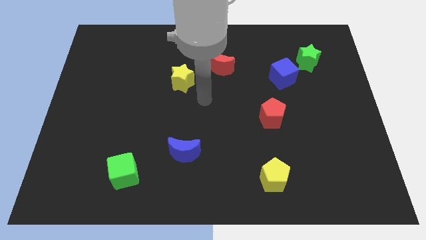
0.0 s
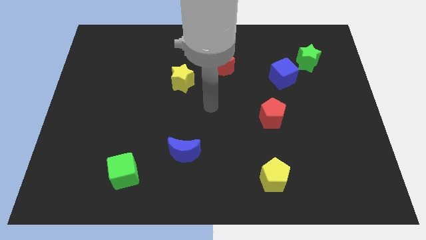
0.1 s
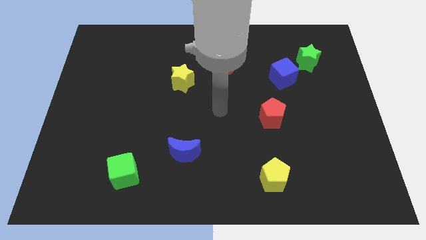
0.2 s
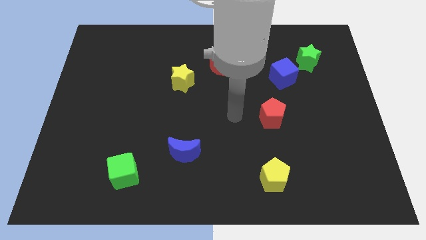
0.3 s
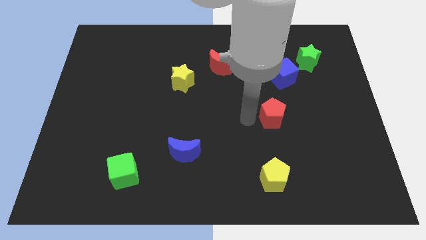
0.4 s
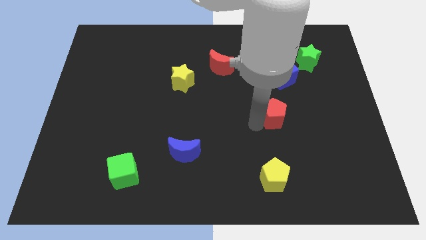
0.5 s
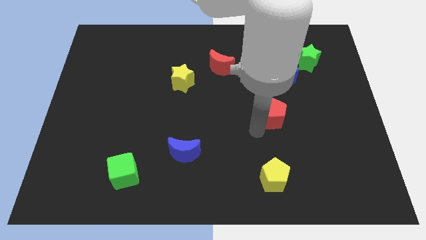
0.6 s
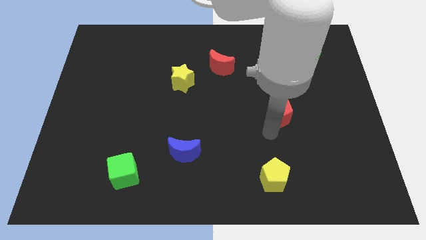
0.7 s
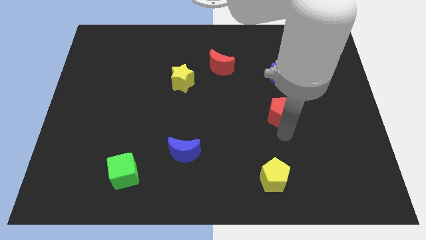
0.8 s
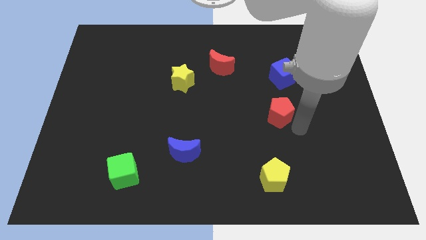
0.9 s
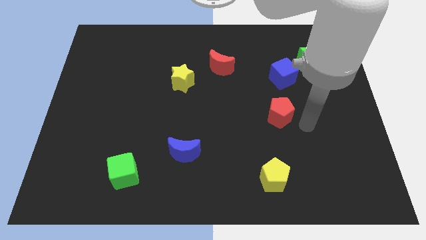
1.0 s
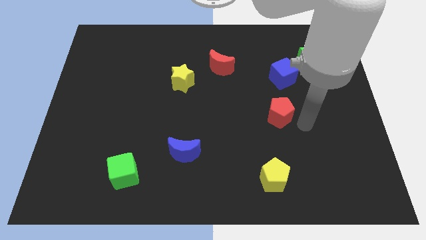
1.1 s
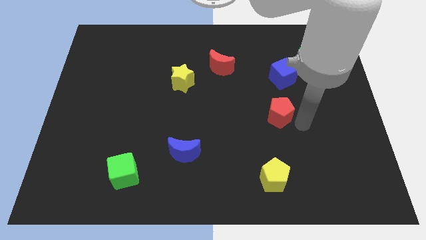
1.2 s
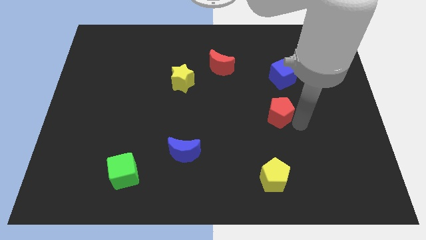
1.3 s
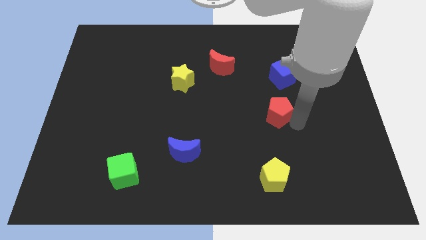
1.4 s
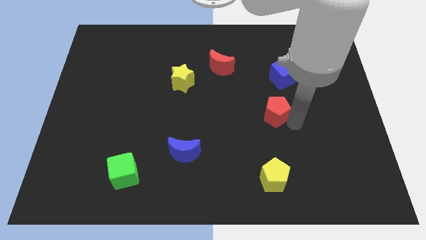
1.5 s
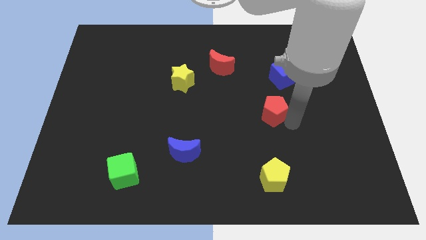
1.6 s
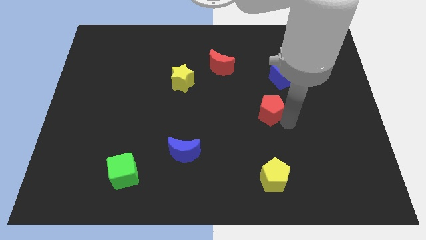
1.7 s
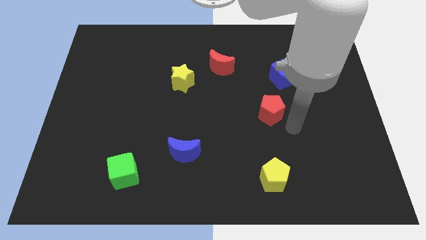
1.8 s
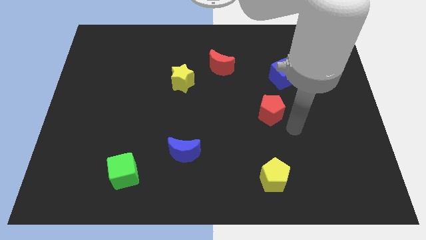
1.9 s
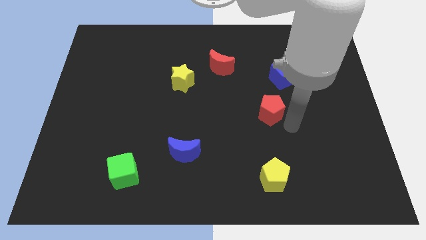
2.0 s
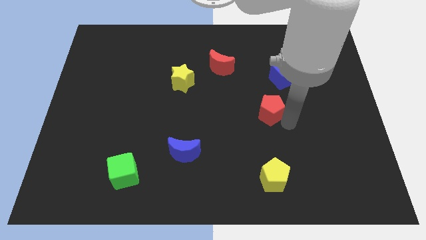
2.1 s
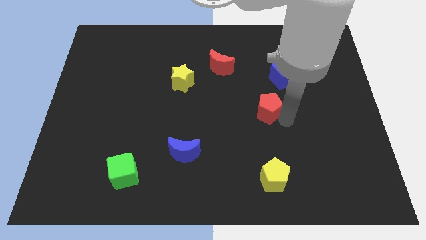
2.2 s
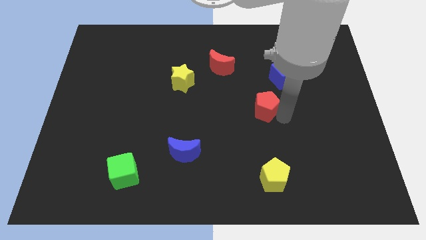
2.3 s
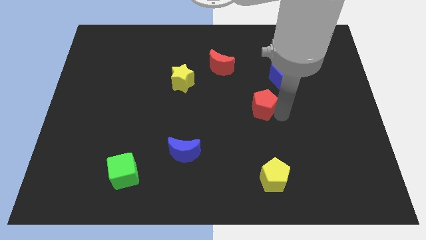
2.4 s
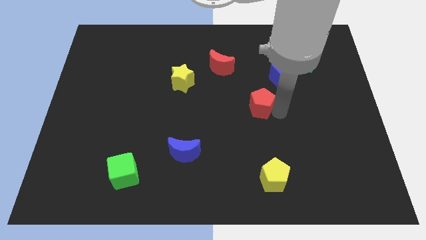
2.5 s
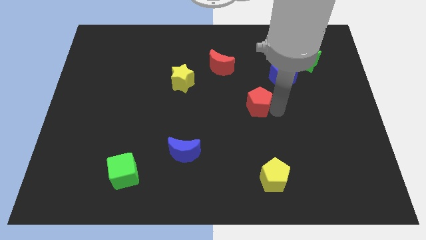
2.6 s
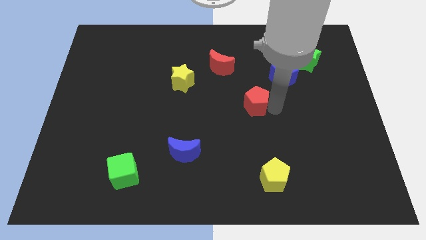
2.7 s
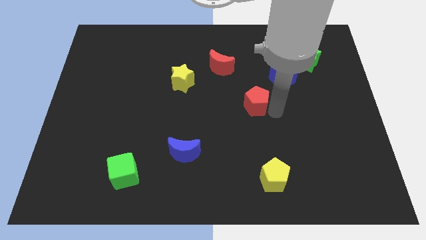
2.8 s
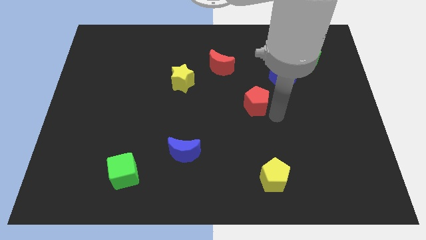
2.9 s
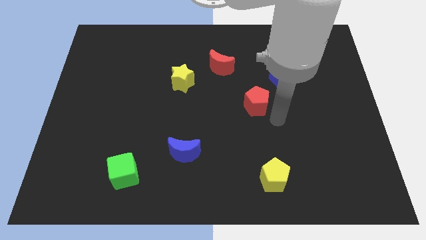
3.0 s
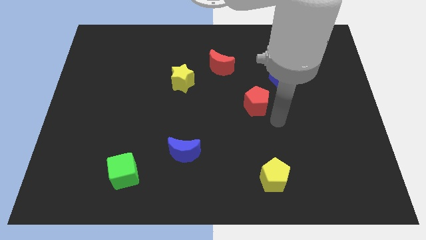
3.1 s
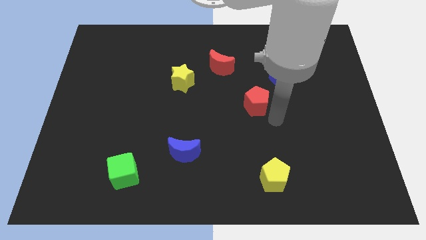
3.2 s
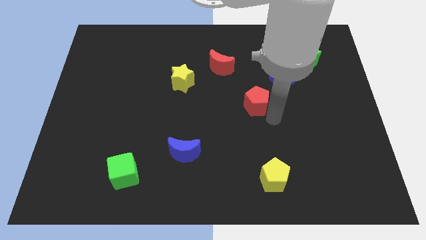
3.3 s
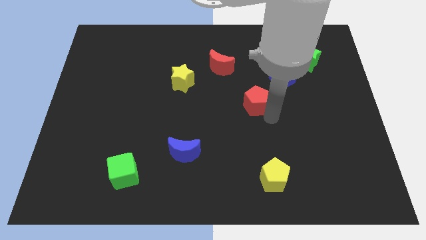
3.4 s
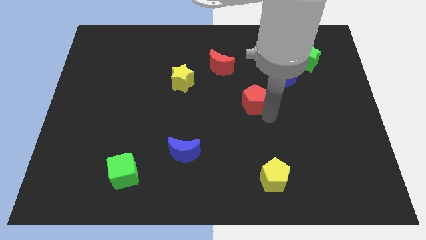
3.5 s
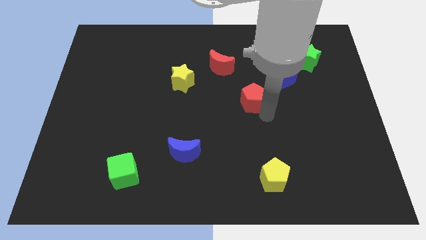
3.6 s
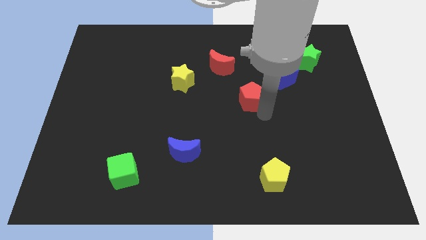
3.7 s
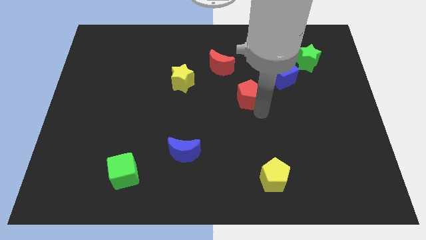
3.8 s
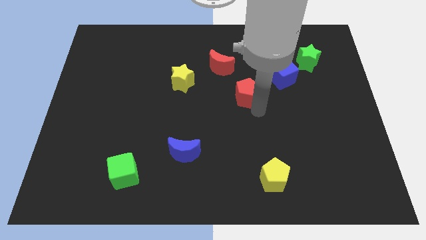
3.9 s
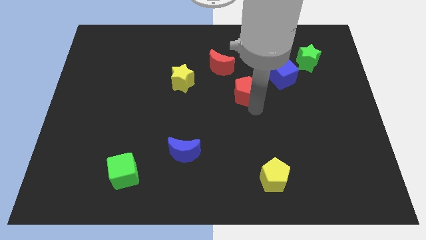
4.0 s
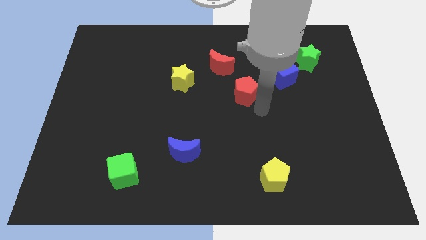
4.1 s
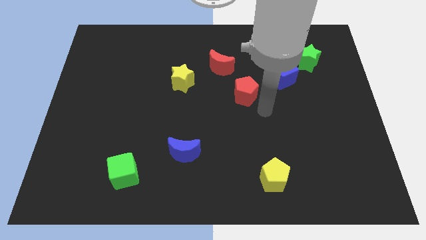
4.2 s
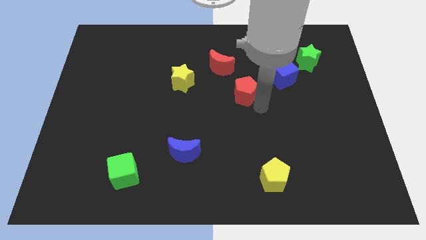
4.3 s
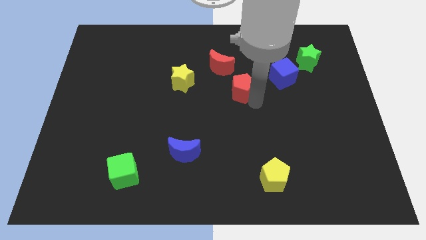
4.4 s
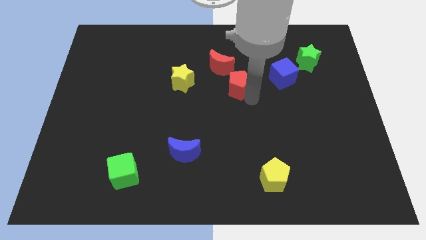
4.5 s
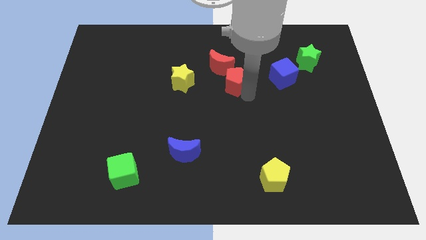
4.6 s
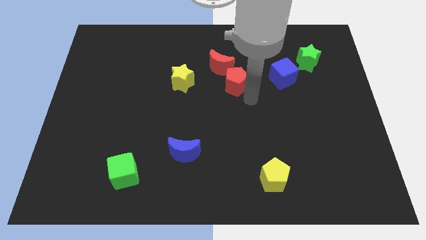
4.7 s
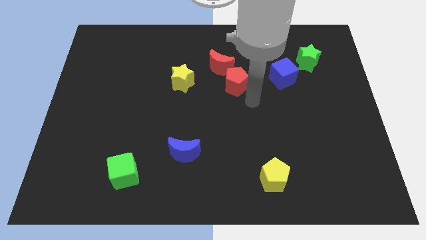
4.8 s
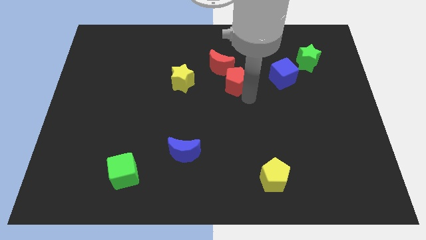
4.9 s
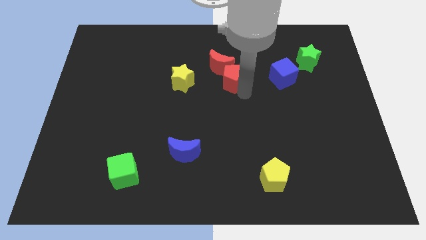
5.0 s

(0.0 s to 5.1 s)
put the red pentagon towards the red moon

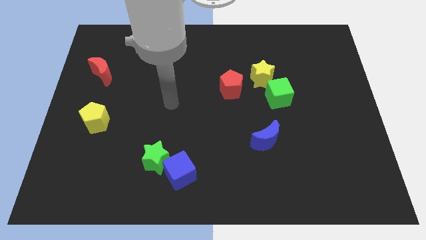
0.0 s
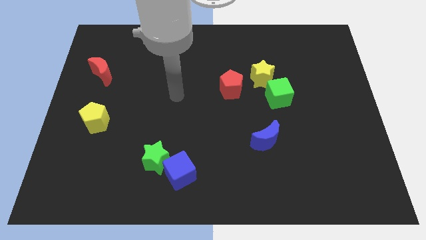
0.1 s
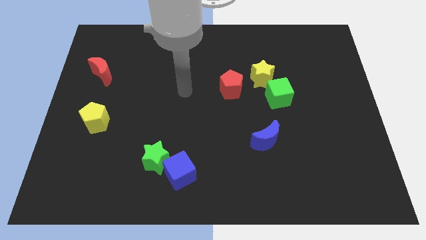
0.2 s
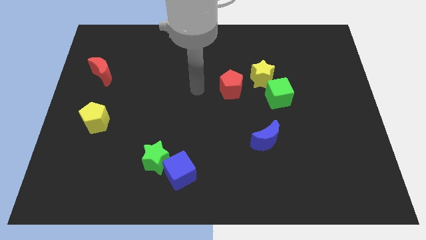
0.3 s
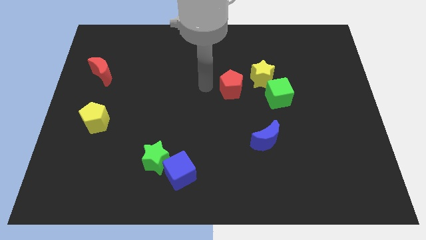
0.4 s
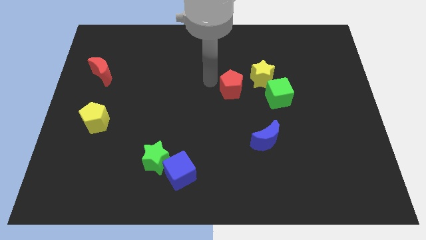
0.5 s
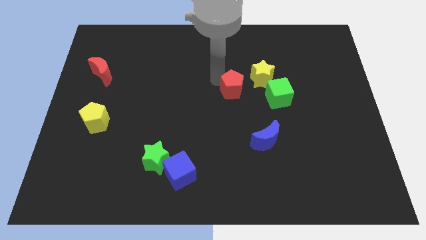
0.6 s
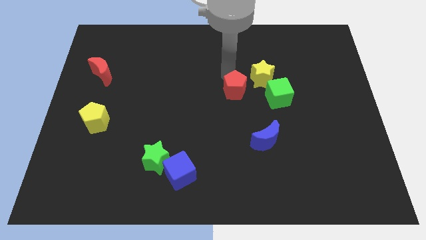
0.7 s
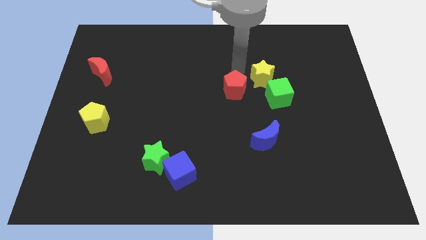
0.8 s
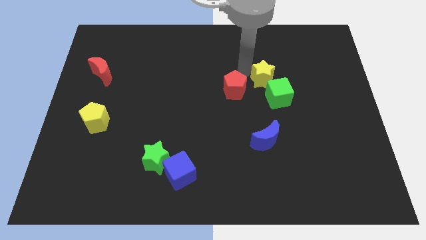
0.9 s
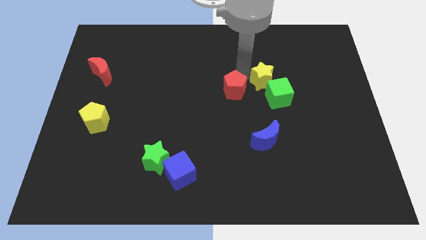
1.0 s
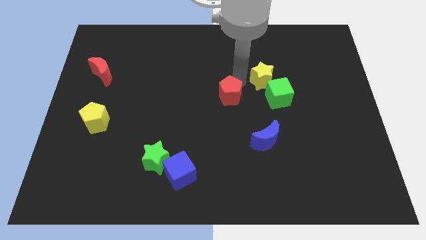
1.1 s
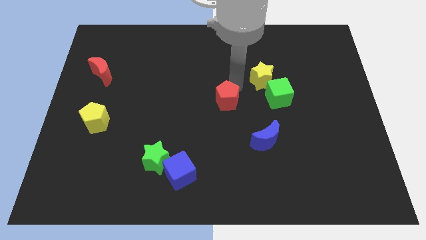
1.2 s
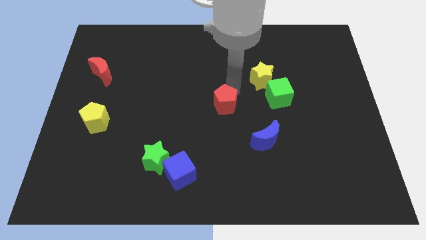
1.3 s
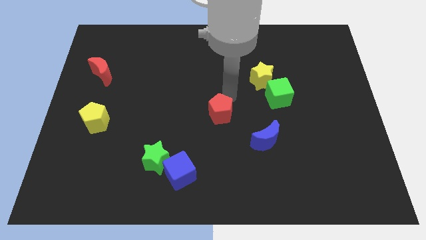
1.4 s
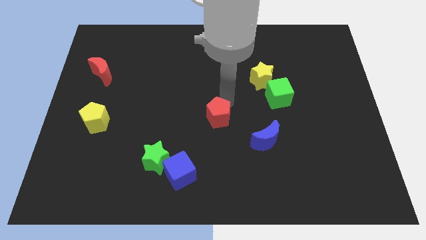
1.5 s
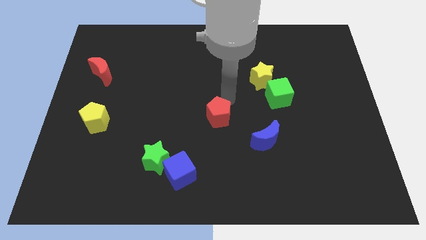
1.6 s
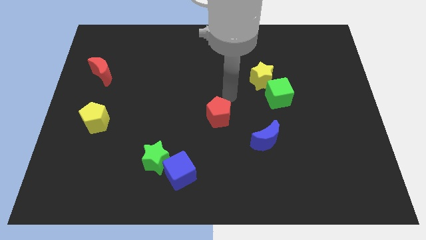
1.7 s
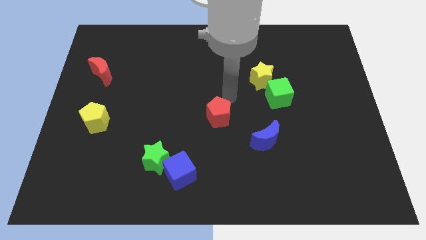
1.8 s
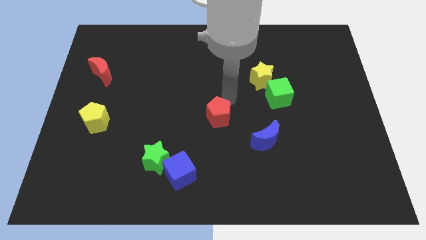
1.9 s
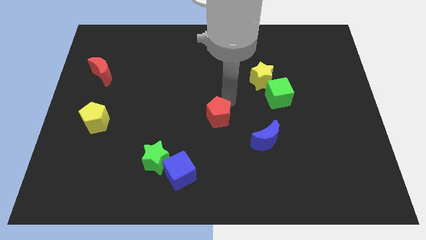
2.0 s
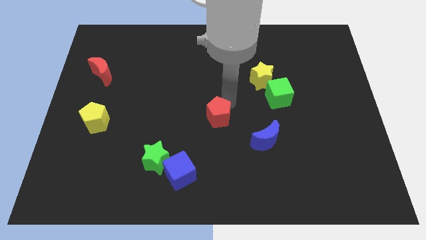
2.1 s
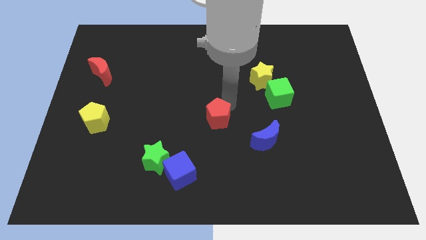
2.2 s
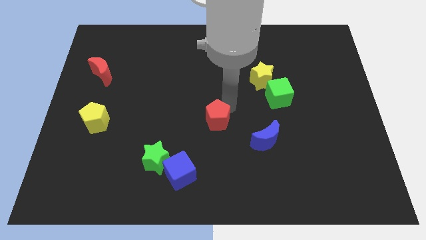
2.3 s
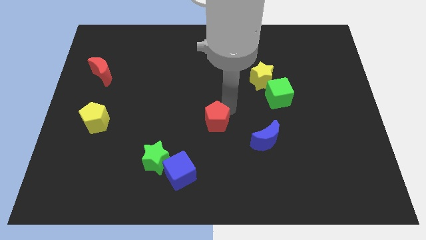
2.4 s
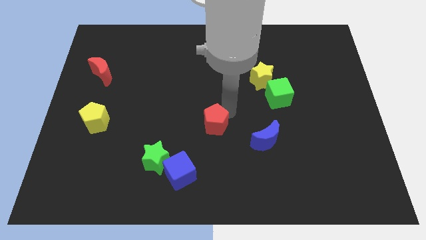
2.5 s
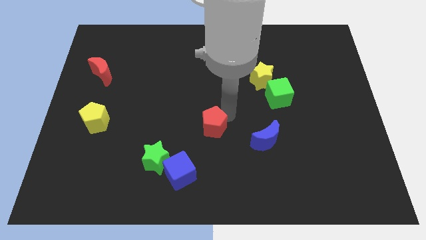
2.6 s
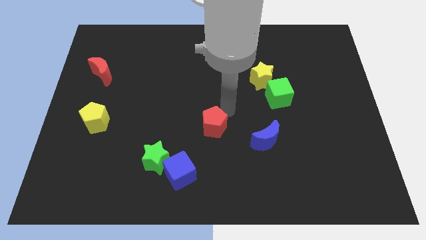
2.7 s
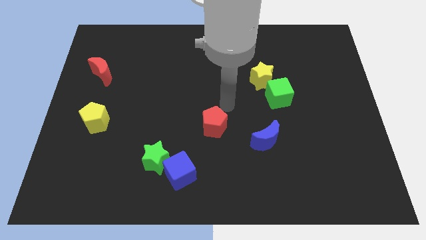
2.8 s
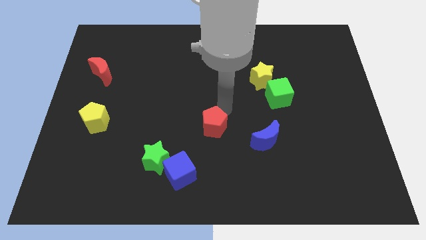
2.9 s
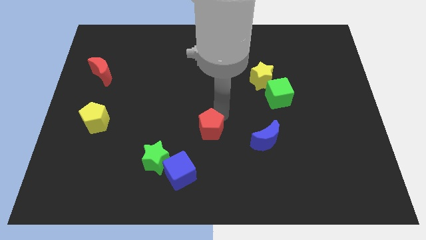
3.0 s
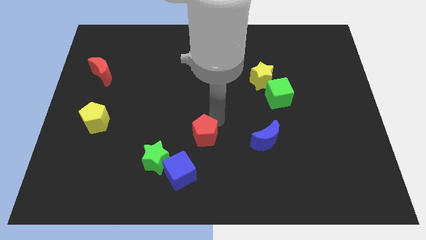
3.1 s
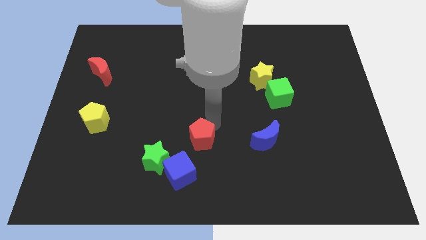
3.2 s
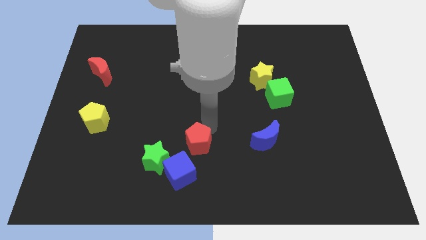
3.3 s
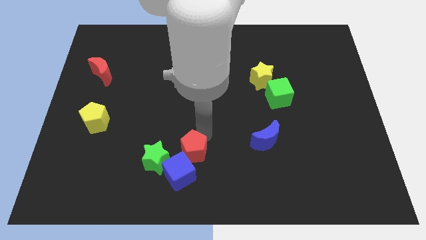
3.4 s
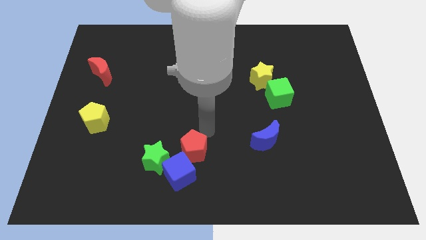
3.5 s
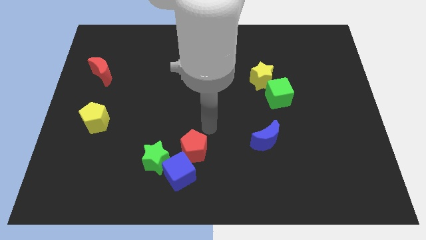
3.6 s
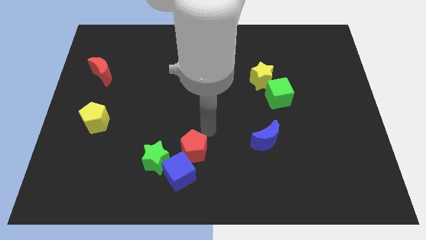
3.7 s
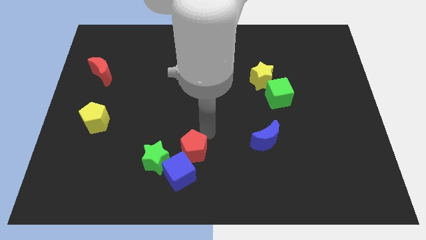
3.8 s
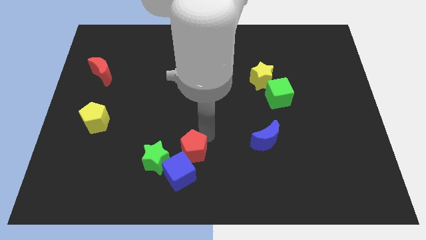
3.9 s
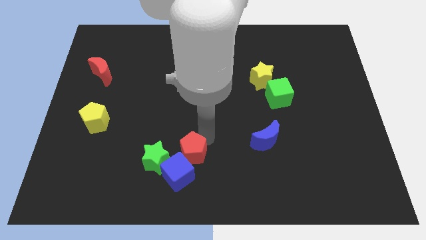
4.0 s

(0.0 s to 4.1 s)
put the red pentagon next to the blue cube
